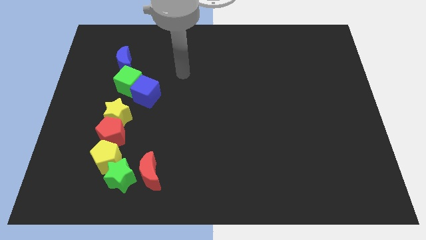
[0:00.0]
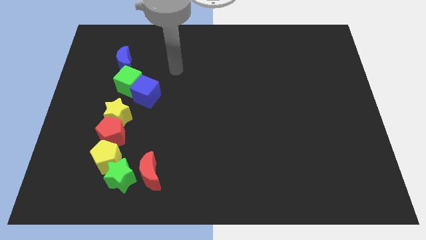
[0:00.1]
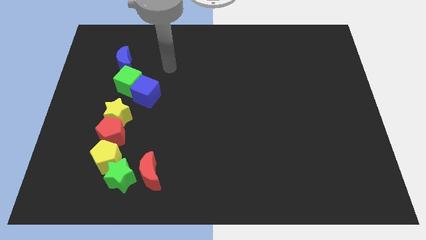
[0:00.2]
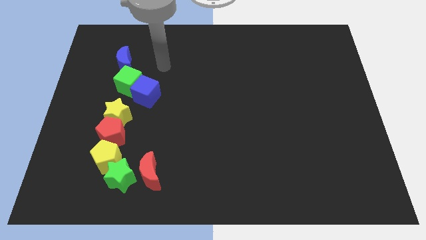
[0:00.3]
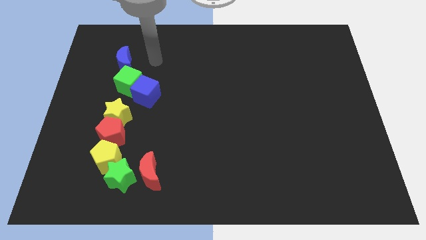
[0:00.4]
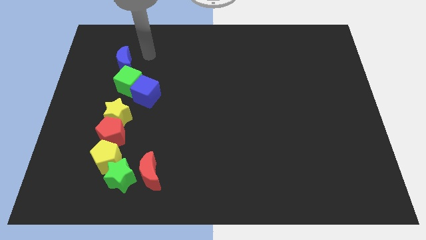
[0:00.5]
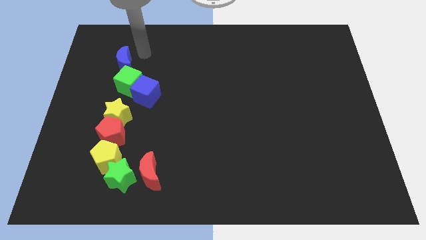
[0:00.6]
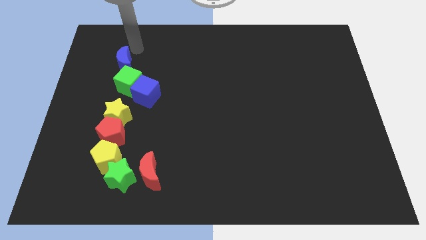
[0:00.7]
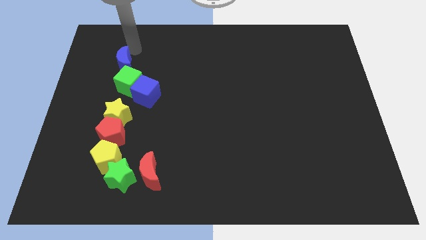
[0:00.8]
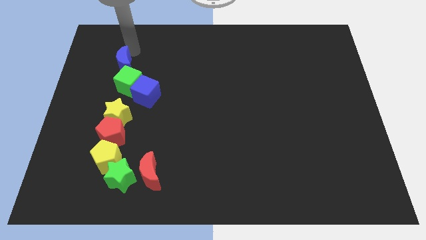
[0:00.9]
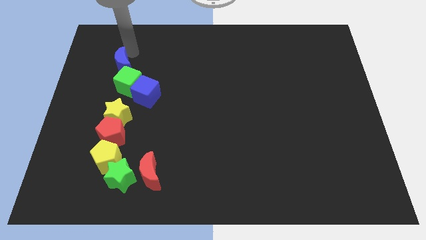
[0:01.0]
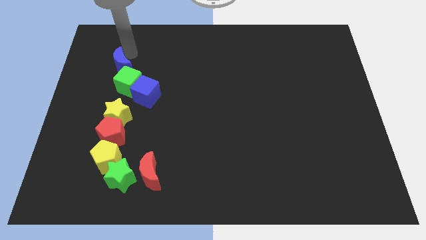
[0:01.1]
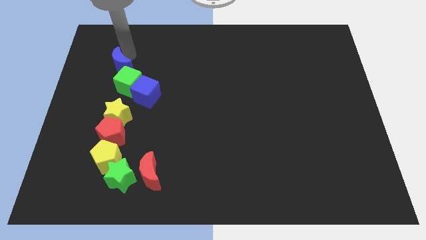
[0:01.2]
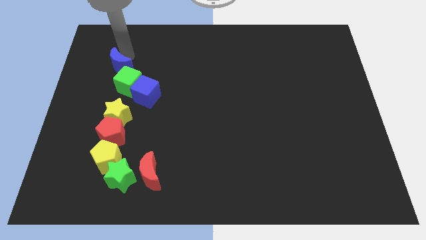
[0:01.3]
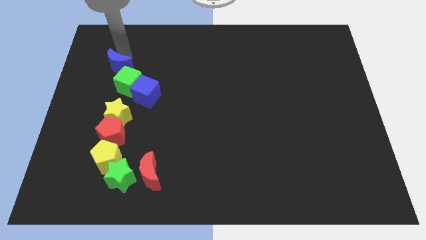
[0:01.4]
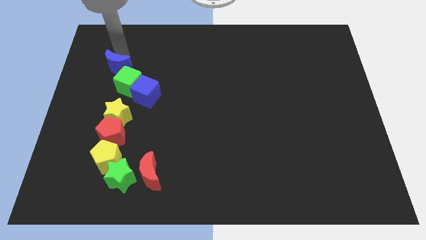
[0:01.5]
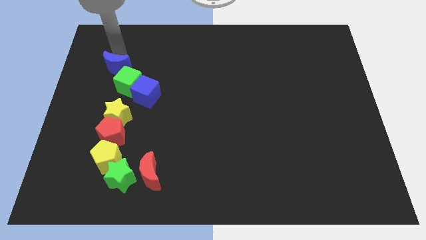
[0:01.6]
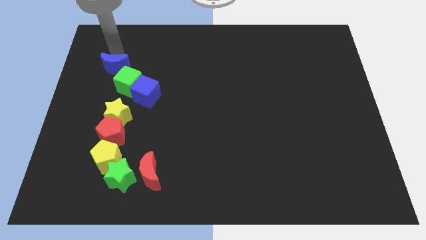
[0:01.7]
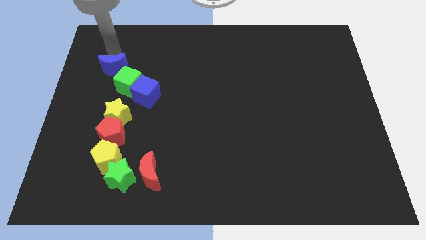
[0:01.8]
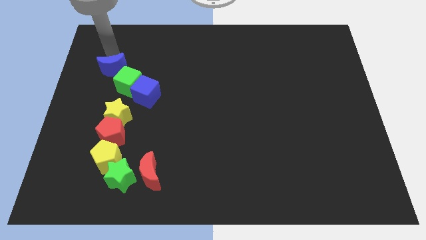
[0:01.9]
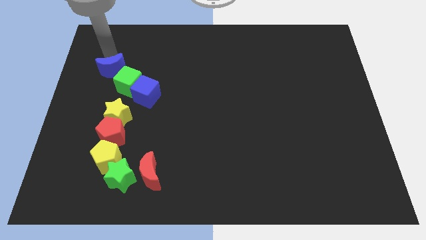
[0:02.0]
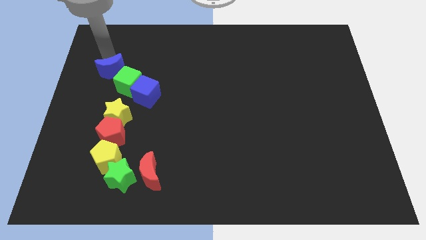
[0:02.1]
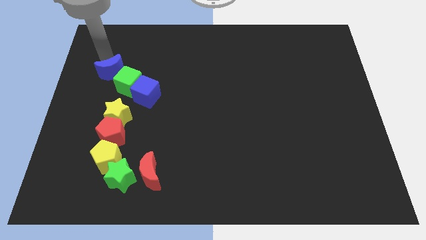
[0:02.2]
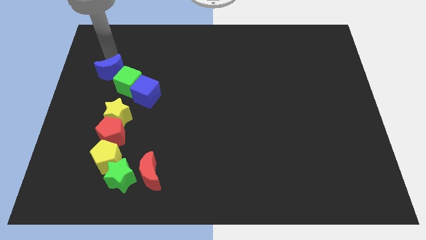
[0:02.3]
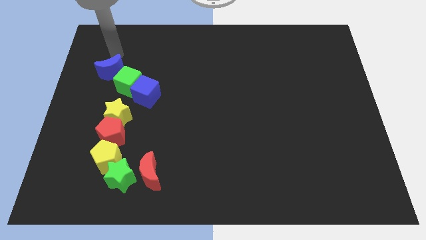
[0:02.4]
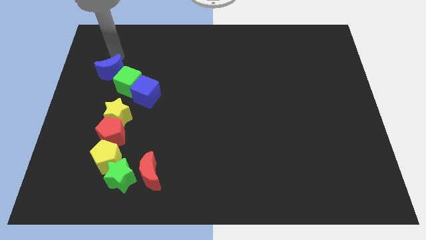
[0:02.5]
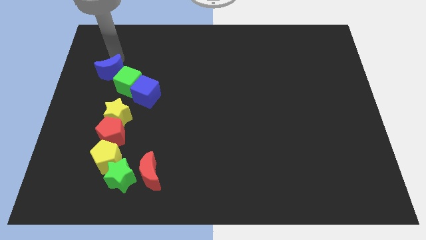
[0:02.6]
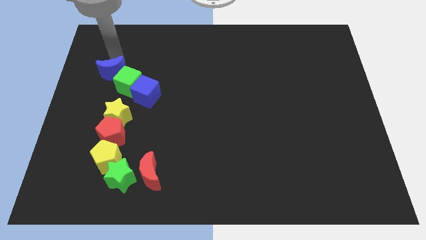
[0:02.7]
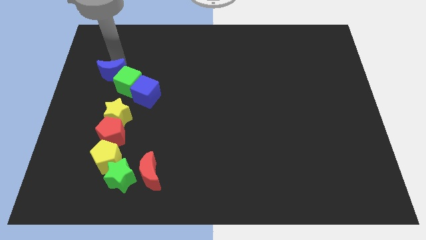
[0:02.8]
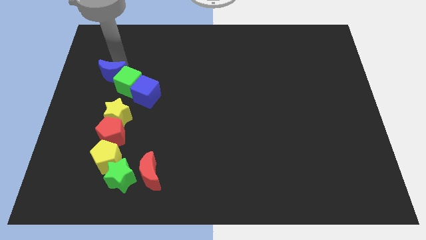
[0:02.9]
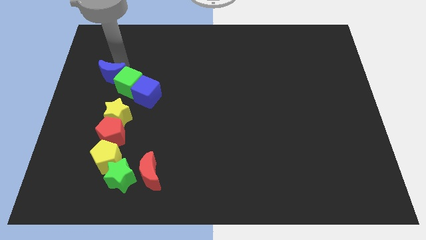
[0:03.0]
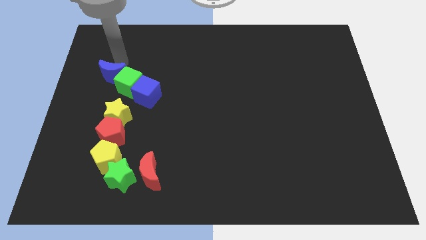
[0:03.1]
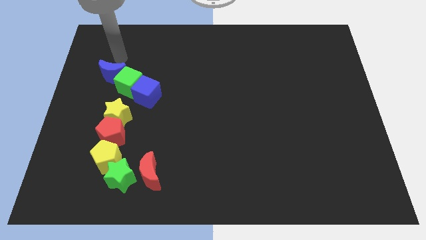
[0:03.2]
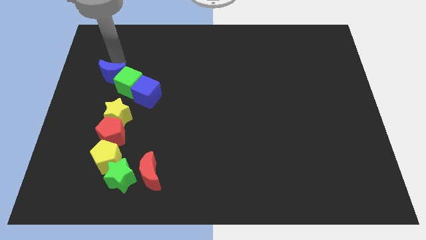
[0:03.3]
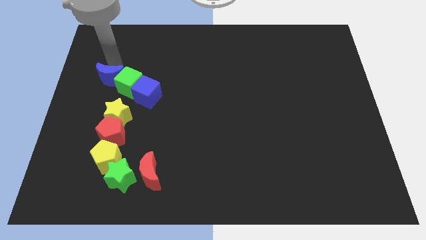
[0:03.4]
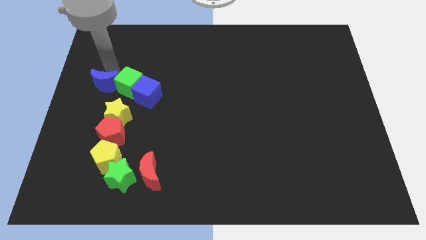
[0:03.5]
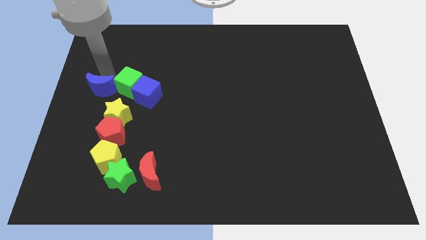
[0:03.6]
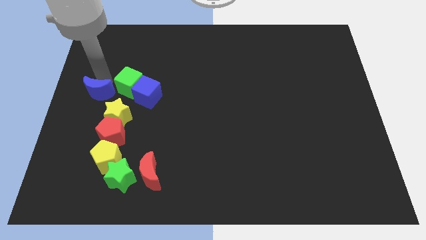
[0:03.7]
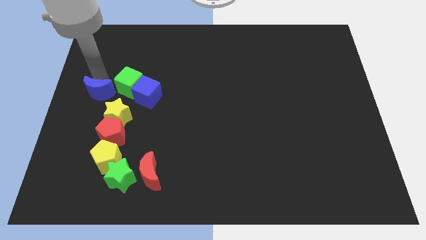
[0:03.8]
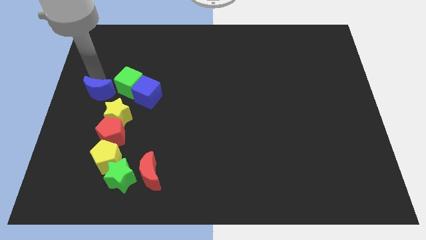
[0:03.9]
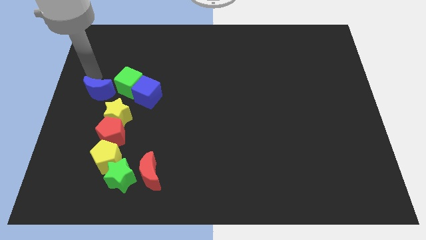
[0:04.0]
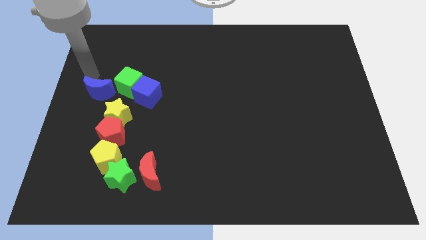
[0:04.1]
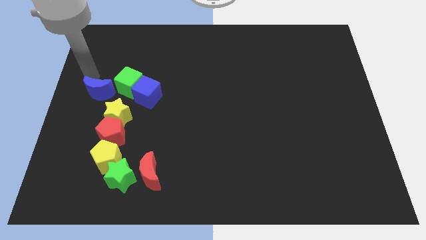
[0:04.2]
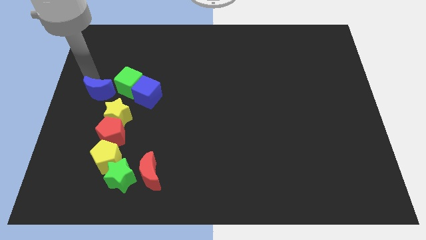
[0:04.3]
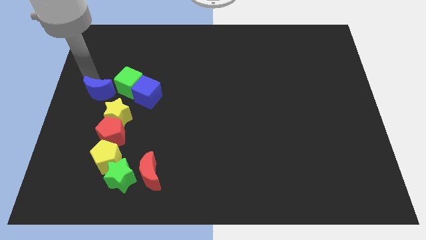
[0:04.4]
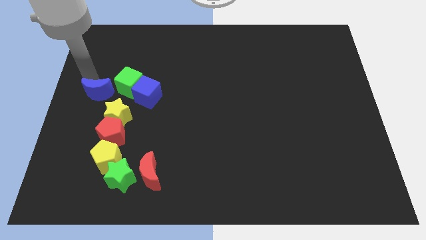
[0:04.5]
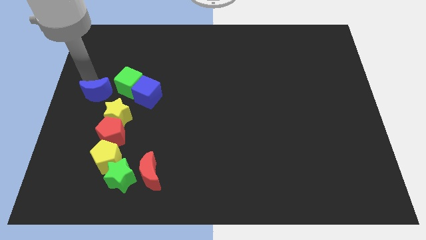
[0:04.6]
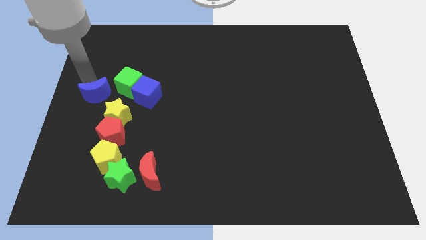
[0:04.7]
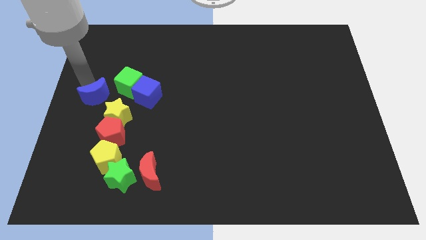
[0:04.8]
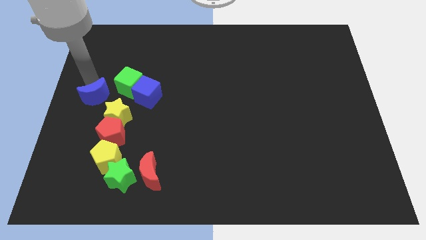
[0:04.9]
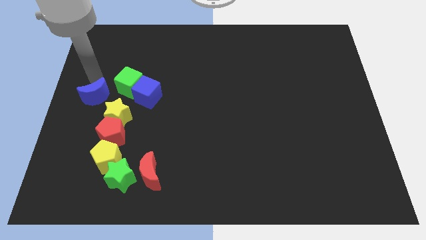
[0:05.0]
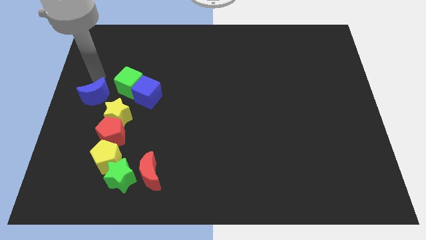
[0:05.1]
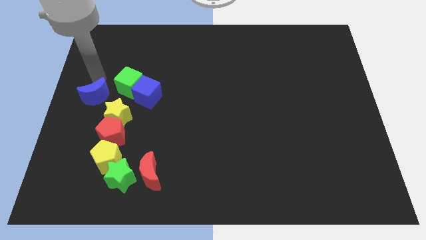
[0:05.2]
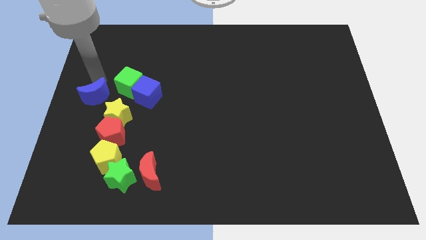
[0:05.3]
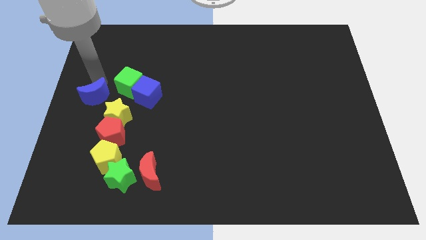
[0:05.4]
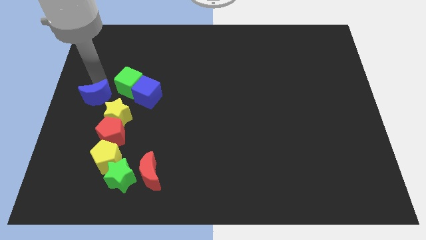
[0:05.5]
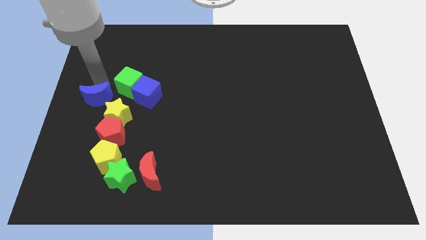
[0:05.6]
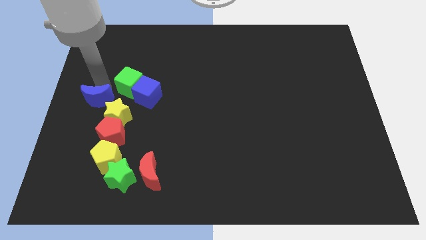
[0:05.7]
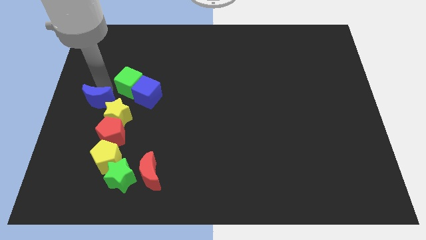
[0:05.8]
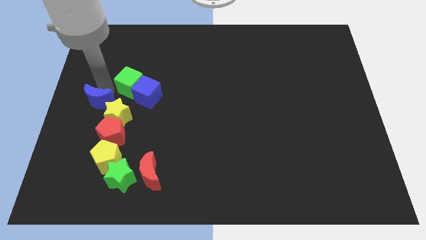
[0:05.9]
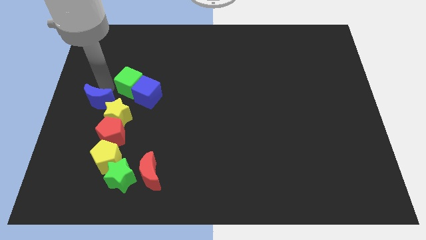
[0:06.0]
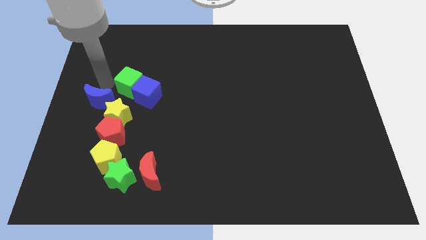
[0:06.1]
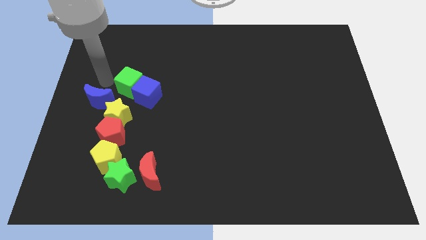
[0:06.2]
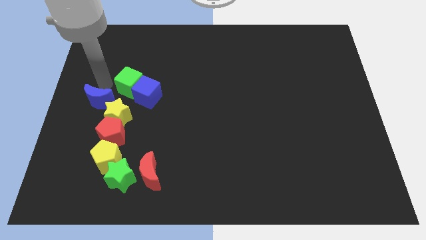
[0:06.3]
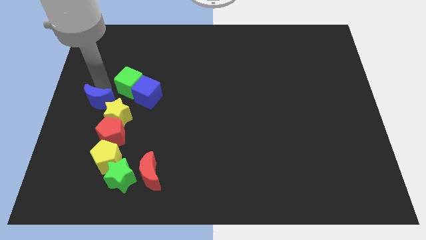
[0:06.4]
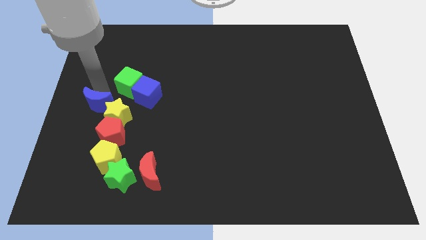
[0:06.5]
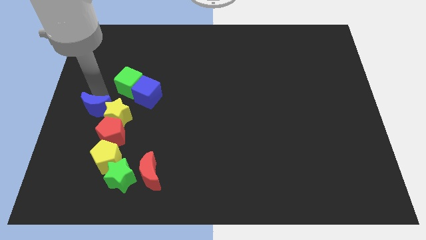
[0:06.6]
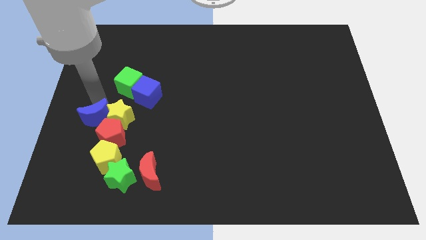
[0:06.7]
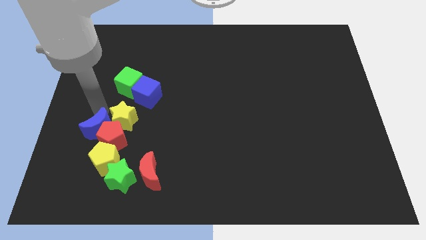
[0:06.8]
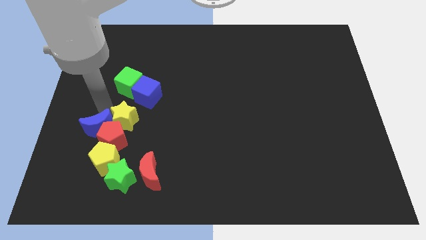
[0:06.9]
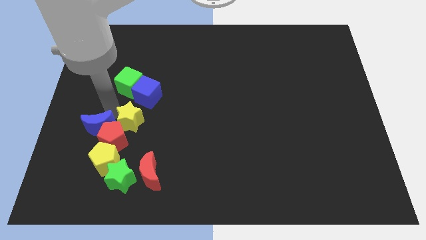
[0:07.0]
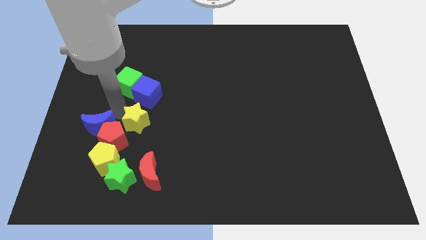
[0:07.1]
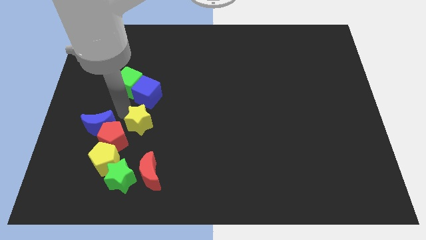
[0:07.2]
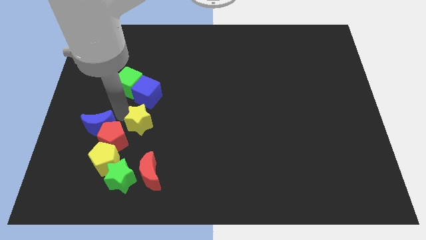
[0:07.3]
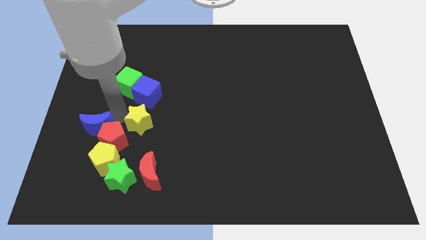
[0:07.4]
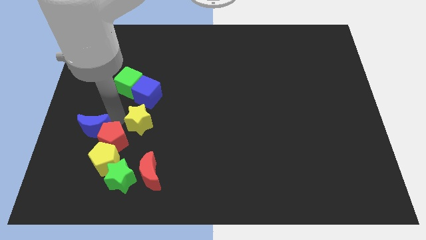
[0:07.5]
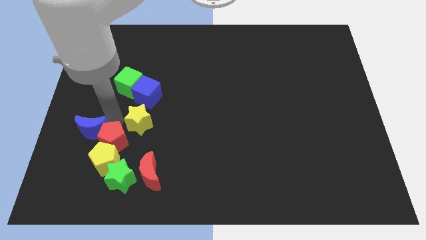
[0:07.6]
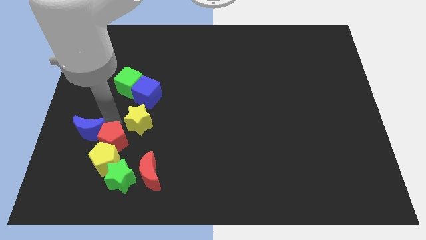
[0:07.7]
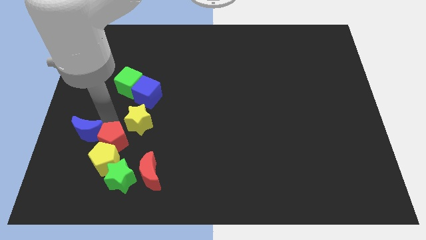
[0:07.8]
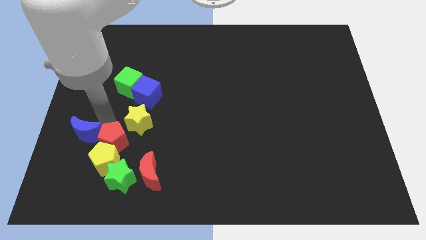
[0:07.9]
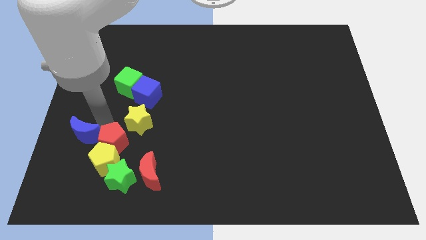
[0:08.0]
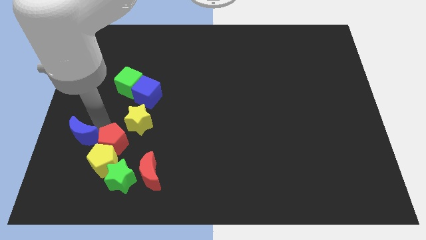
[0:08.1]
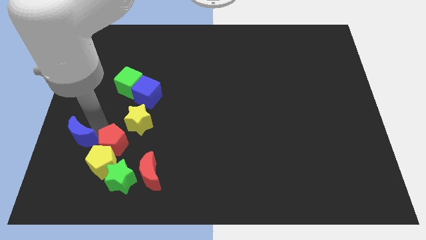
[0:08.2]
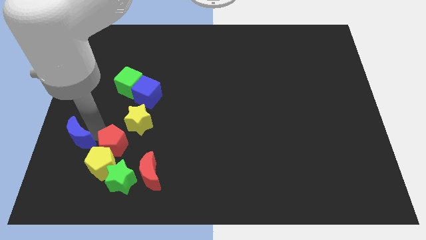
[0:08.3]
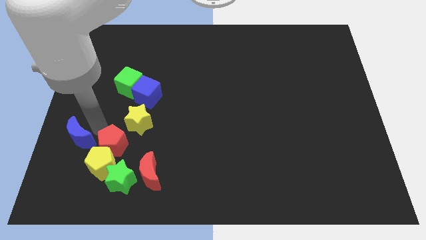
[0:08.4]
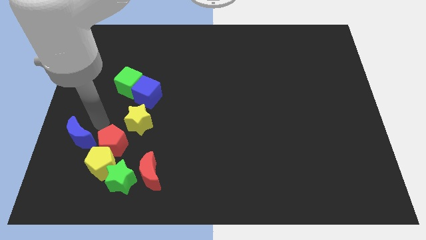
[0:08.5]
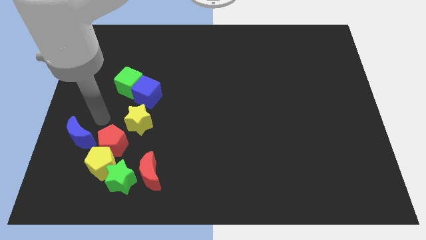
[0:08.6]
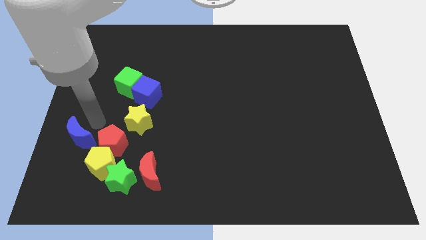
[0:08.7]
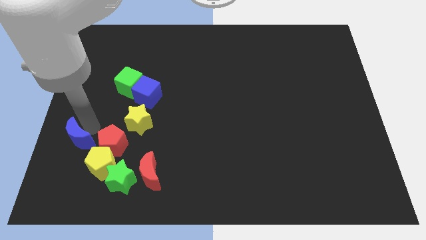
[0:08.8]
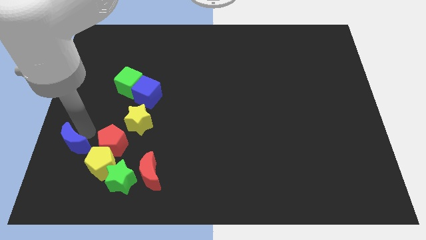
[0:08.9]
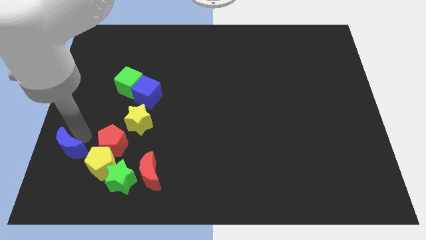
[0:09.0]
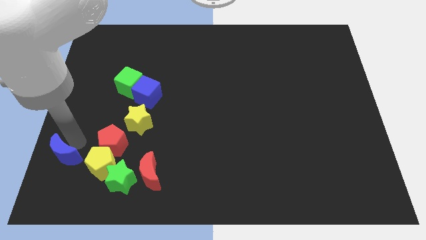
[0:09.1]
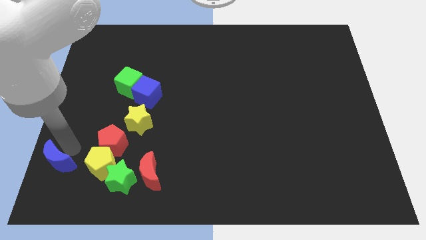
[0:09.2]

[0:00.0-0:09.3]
put the blue moon to the lower left corner
